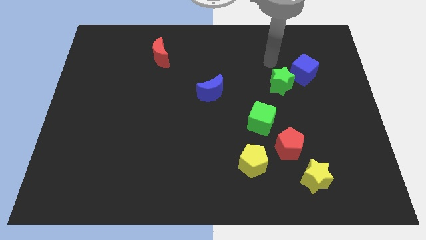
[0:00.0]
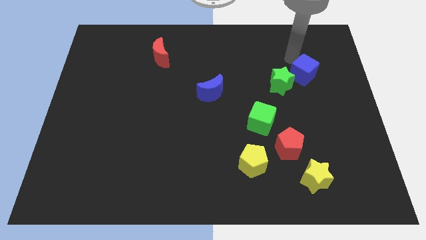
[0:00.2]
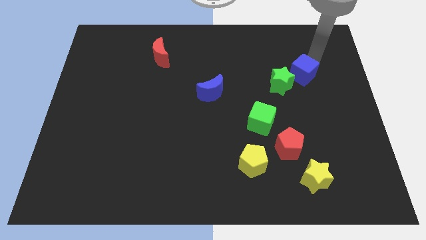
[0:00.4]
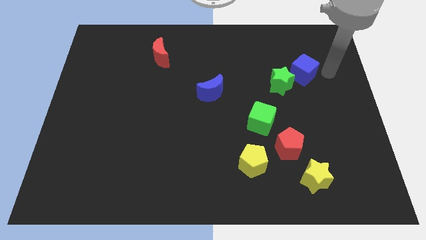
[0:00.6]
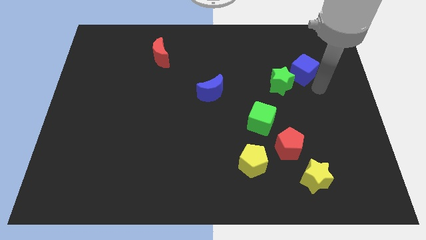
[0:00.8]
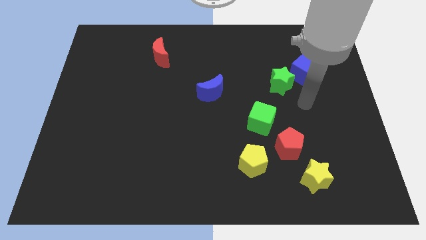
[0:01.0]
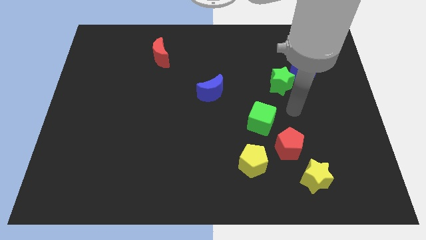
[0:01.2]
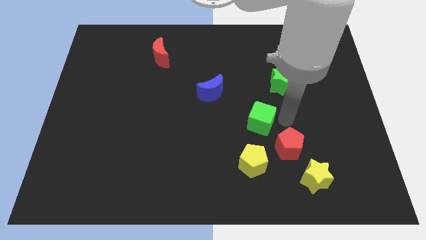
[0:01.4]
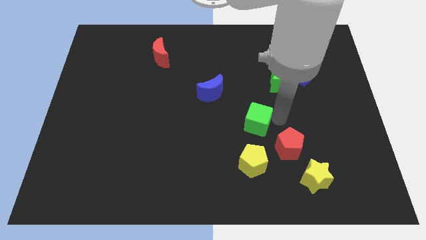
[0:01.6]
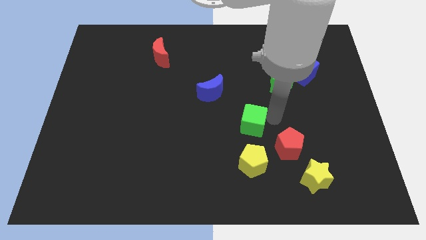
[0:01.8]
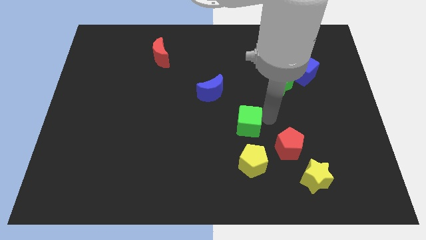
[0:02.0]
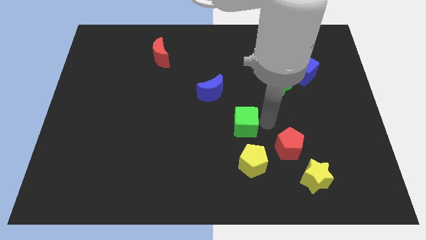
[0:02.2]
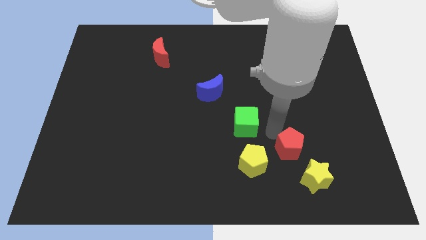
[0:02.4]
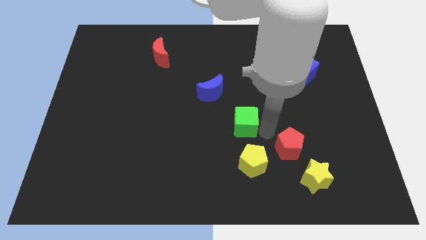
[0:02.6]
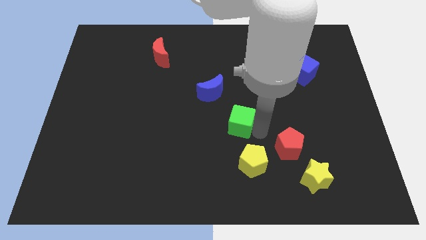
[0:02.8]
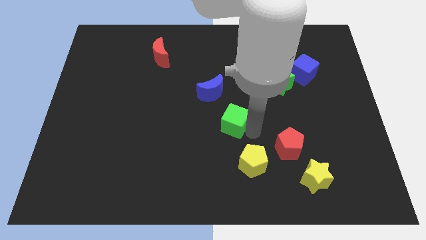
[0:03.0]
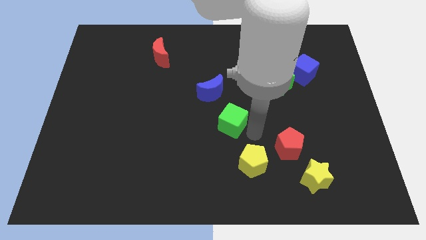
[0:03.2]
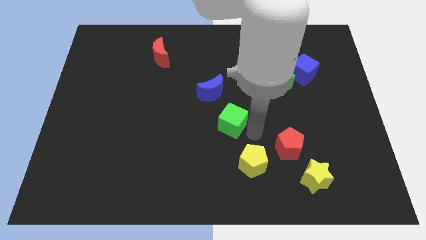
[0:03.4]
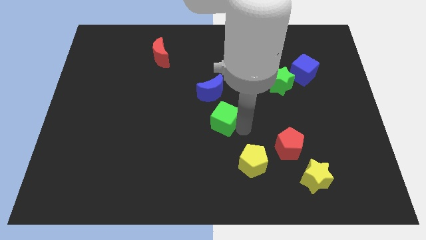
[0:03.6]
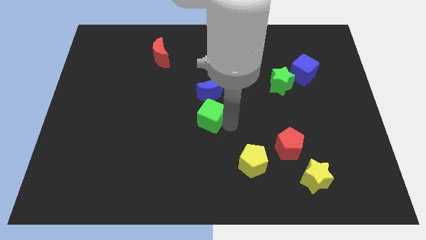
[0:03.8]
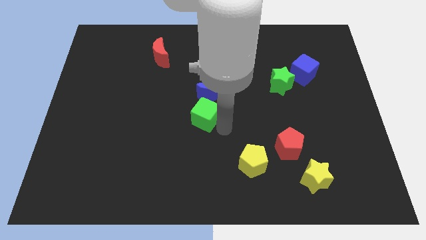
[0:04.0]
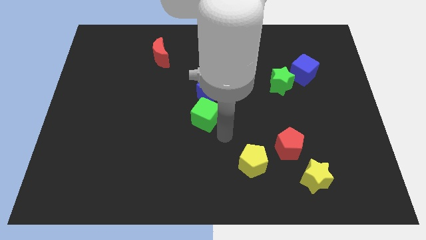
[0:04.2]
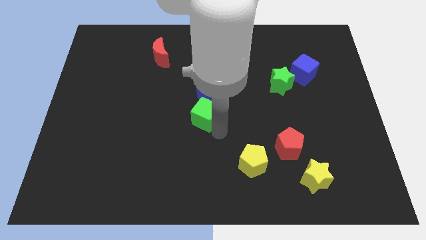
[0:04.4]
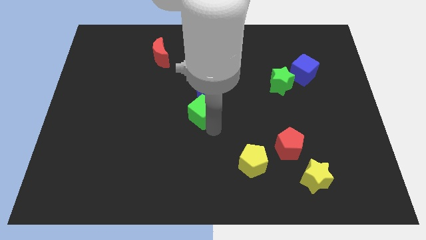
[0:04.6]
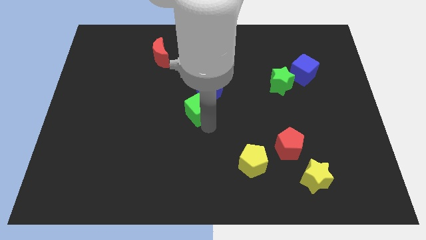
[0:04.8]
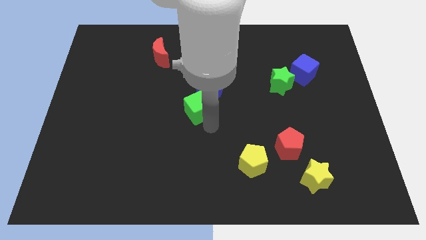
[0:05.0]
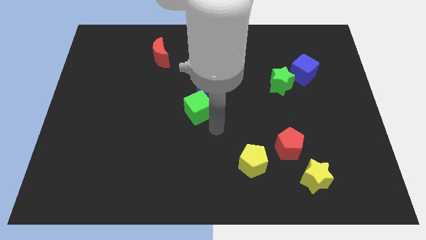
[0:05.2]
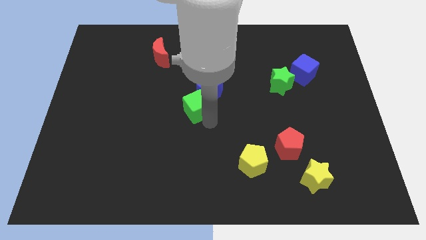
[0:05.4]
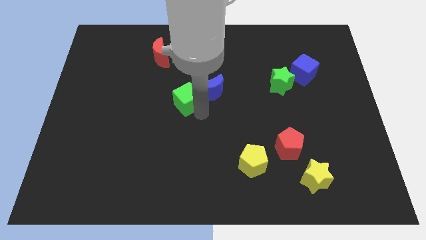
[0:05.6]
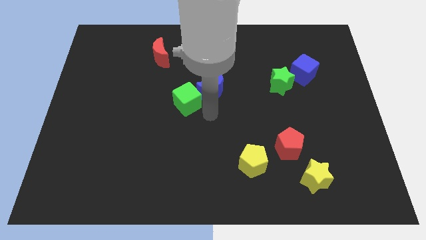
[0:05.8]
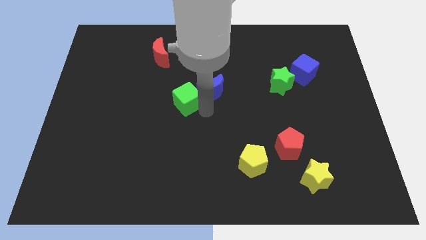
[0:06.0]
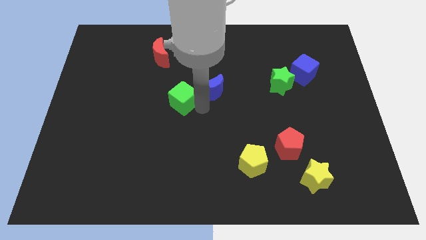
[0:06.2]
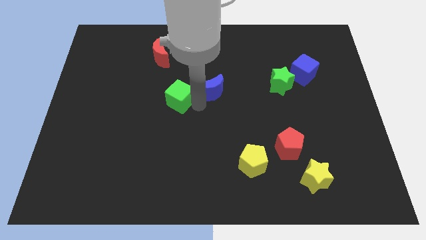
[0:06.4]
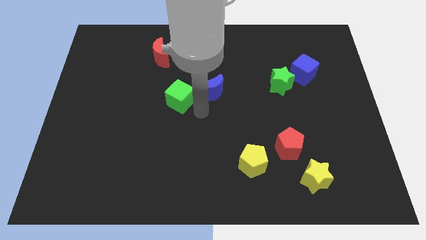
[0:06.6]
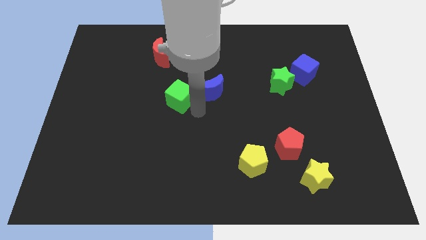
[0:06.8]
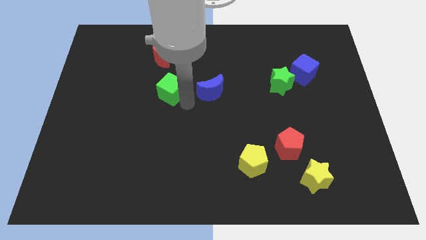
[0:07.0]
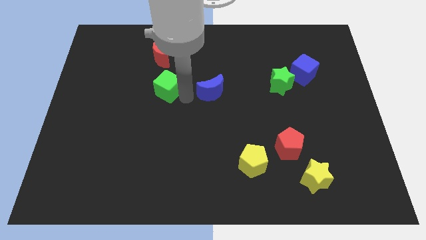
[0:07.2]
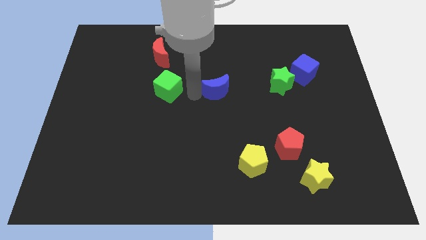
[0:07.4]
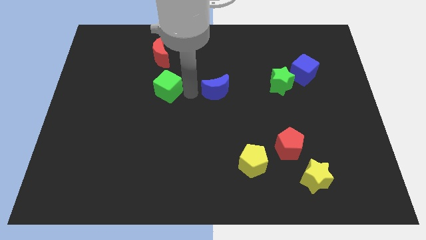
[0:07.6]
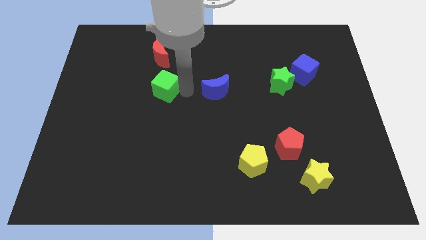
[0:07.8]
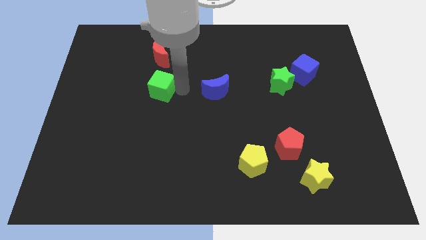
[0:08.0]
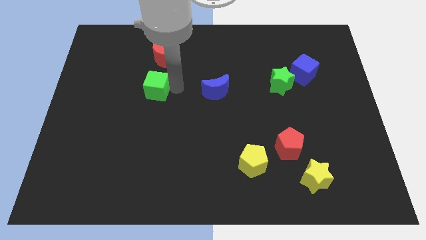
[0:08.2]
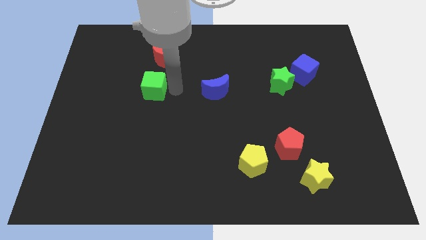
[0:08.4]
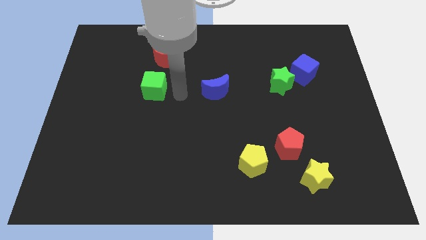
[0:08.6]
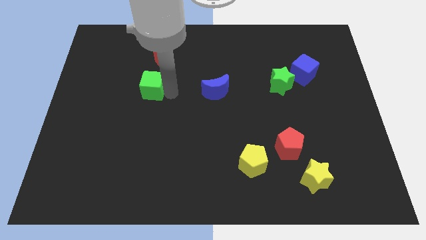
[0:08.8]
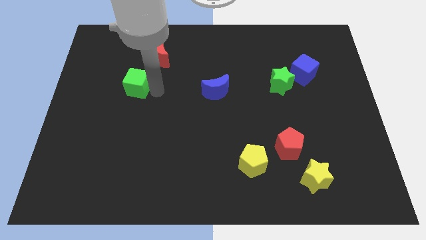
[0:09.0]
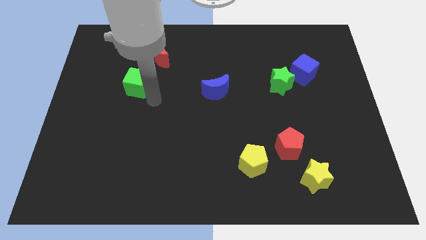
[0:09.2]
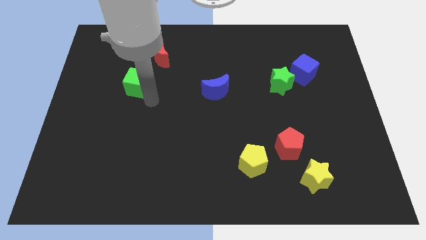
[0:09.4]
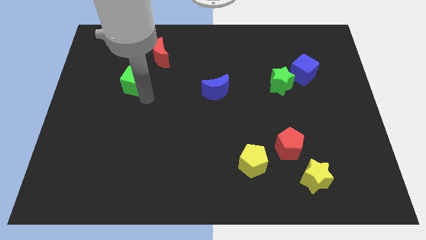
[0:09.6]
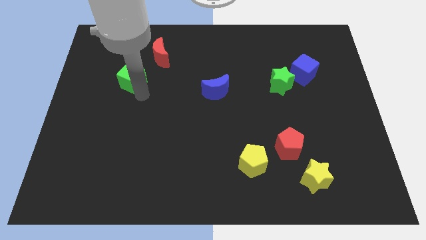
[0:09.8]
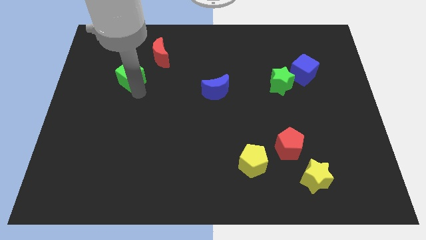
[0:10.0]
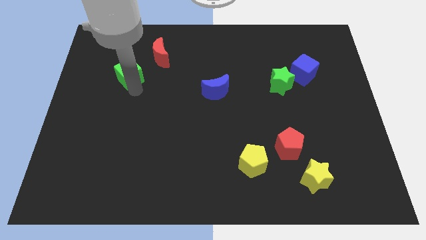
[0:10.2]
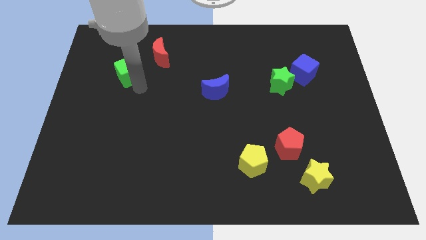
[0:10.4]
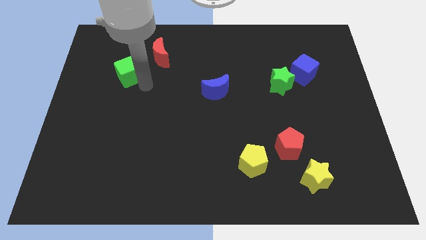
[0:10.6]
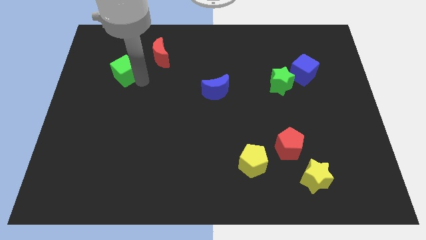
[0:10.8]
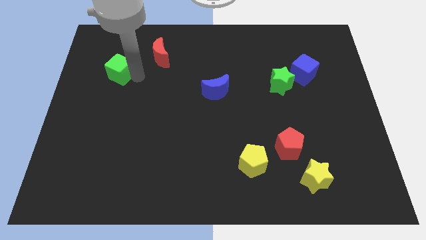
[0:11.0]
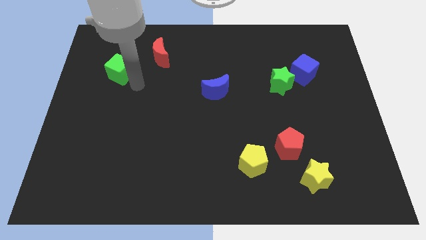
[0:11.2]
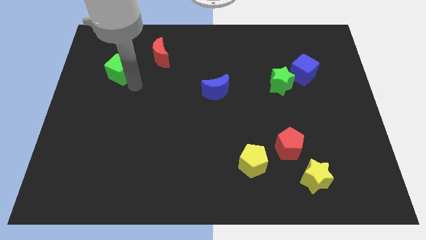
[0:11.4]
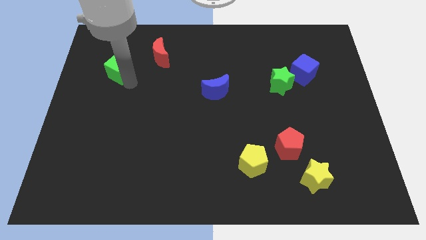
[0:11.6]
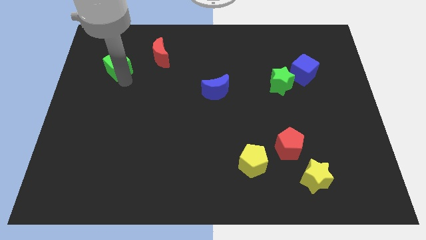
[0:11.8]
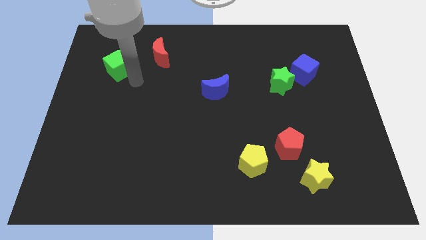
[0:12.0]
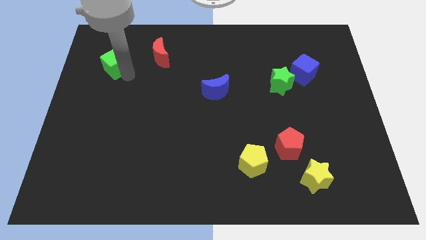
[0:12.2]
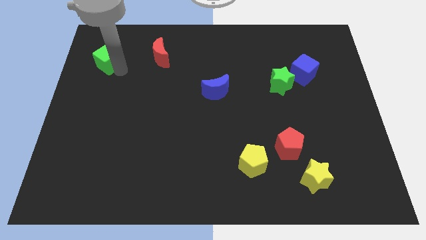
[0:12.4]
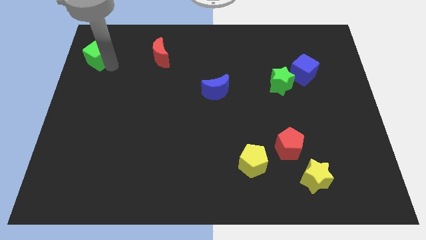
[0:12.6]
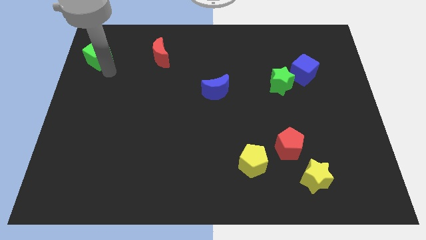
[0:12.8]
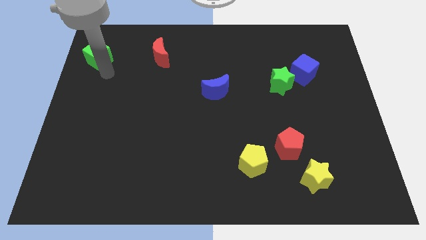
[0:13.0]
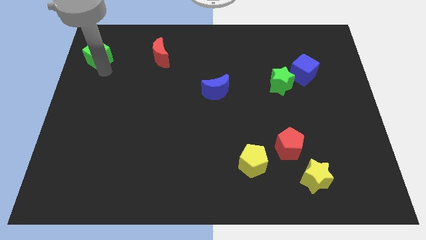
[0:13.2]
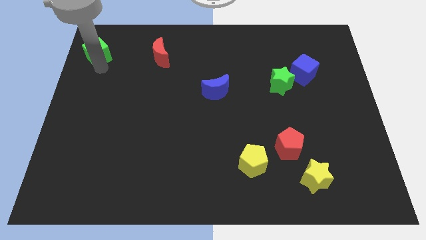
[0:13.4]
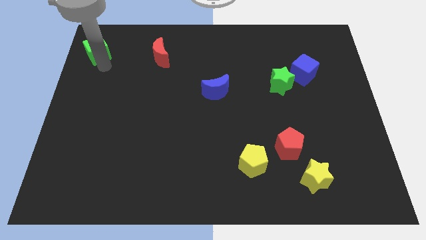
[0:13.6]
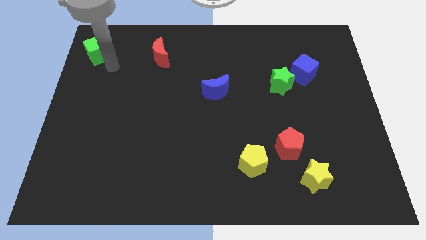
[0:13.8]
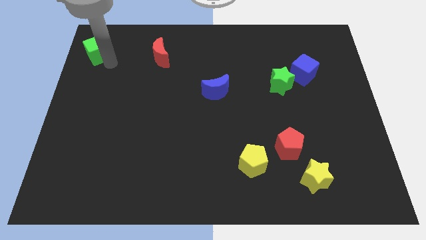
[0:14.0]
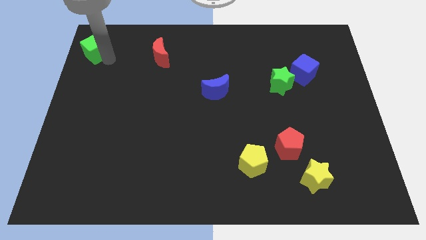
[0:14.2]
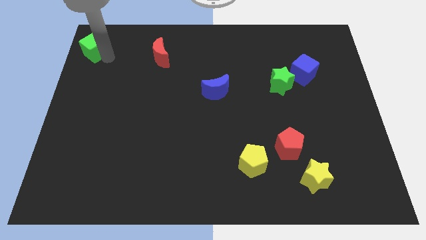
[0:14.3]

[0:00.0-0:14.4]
move the green cube to the top left of the board
